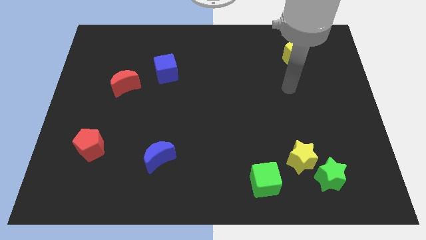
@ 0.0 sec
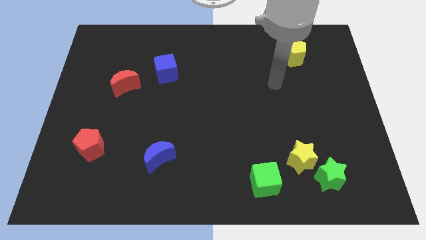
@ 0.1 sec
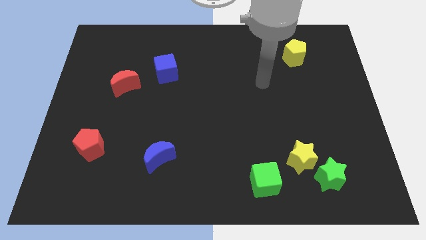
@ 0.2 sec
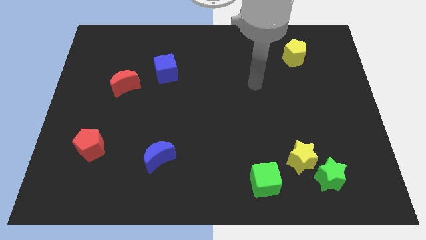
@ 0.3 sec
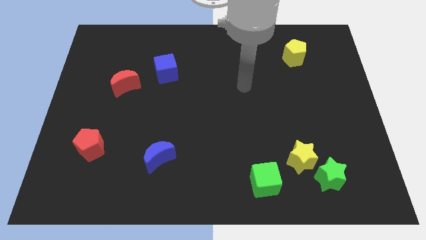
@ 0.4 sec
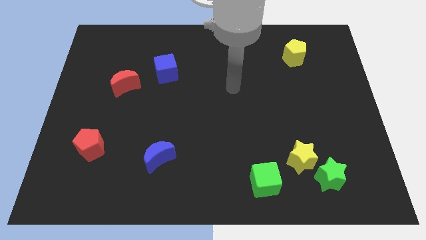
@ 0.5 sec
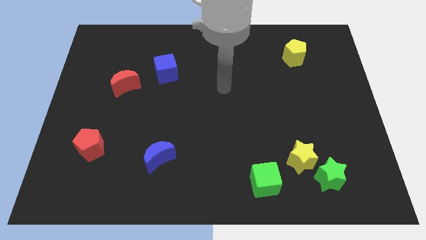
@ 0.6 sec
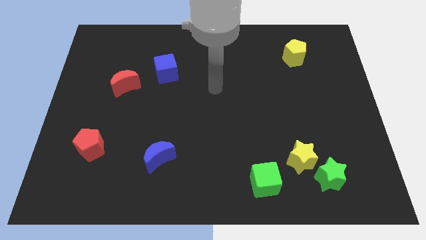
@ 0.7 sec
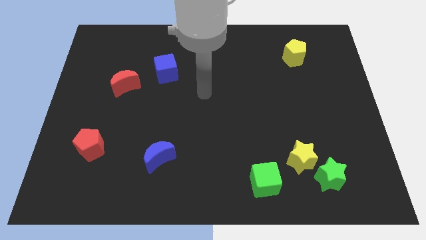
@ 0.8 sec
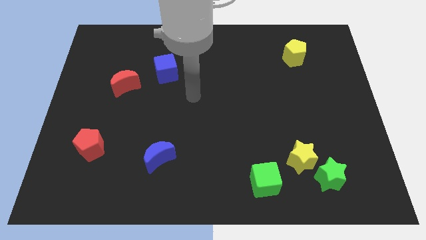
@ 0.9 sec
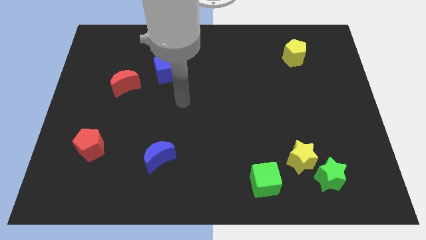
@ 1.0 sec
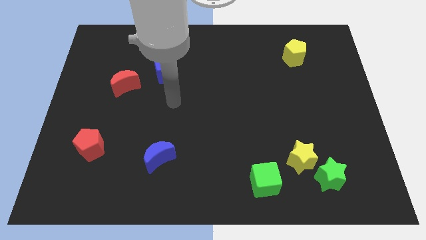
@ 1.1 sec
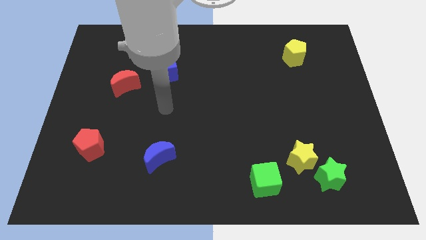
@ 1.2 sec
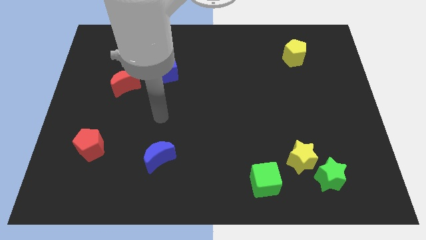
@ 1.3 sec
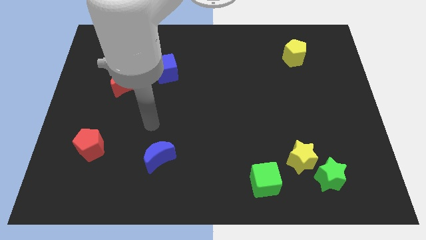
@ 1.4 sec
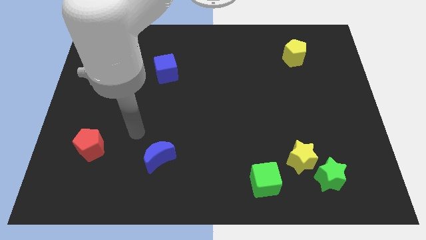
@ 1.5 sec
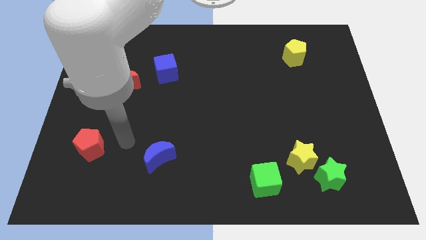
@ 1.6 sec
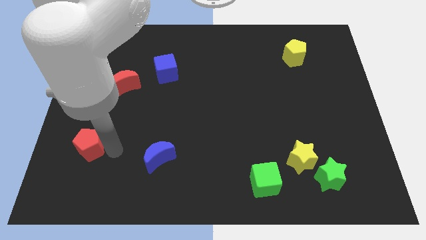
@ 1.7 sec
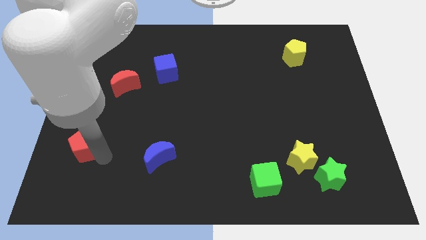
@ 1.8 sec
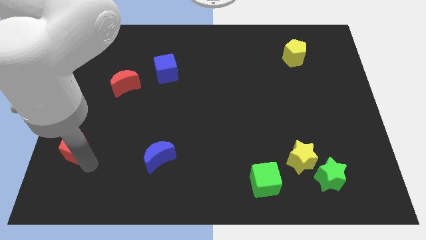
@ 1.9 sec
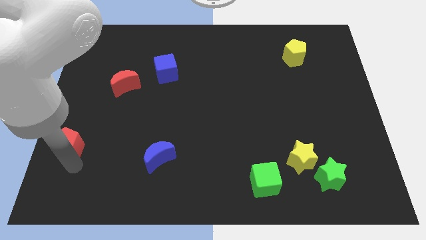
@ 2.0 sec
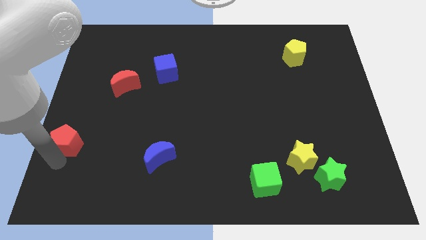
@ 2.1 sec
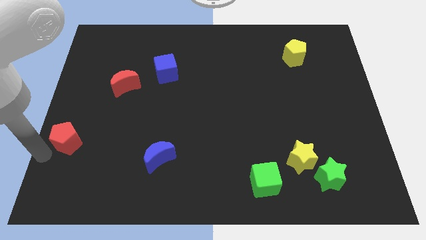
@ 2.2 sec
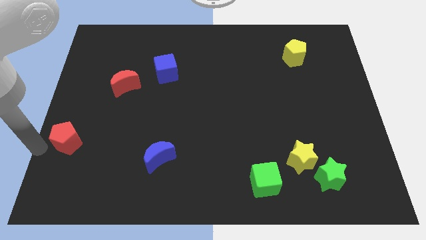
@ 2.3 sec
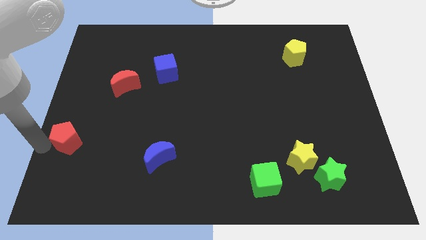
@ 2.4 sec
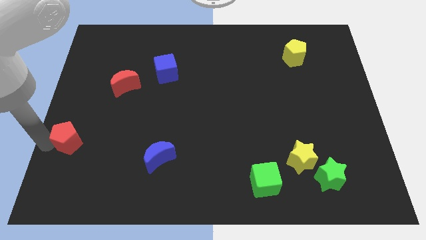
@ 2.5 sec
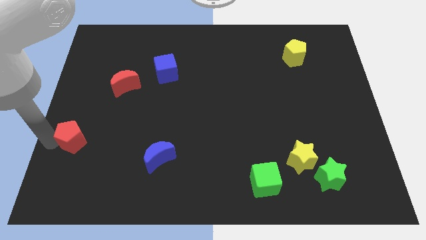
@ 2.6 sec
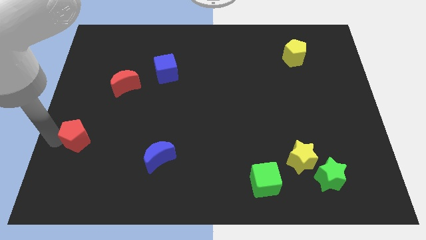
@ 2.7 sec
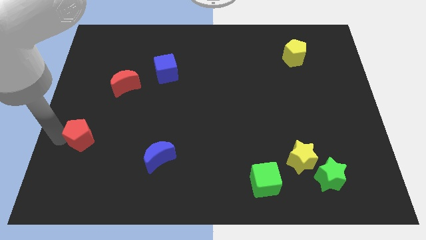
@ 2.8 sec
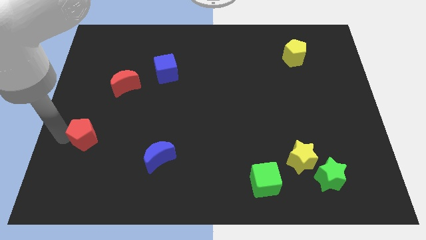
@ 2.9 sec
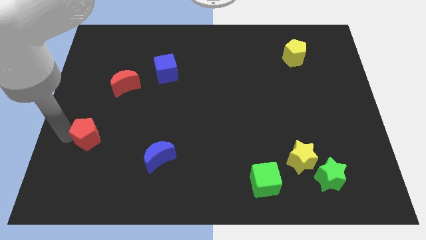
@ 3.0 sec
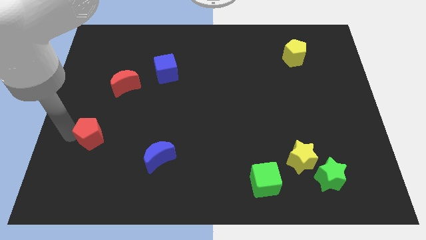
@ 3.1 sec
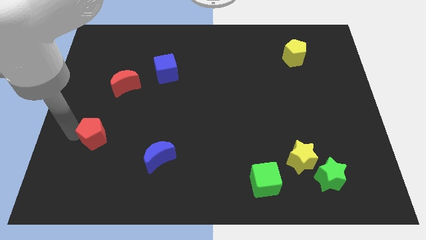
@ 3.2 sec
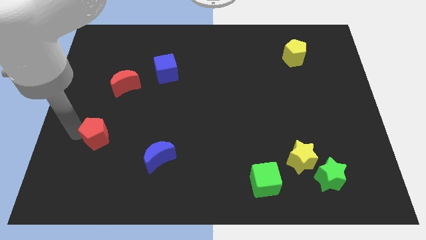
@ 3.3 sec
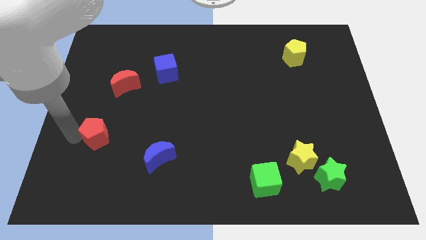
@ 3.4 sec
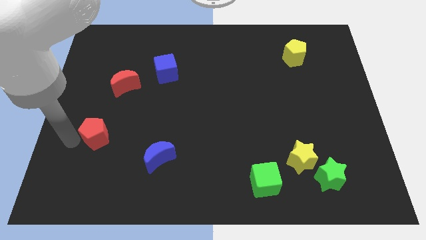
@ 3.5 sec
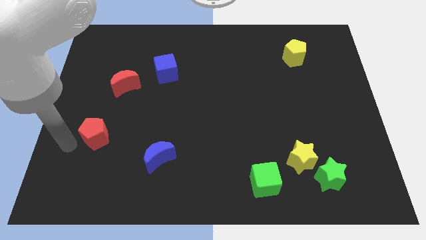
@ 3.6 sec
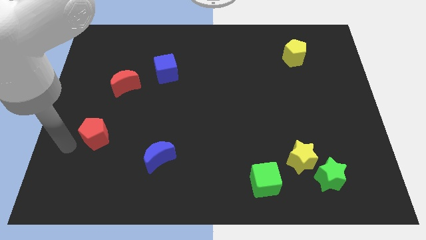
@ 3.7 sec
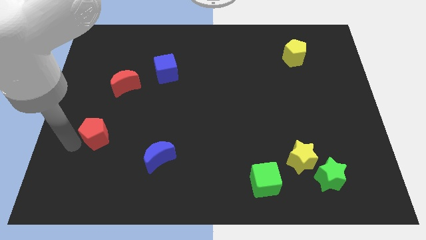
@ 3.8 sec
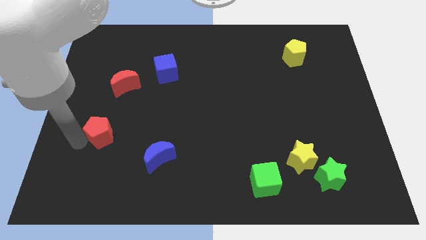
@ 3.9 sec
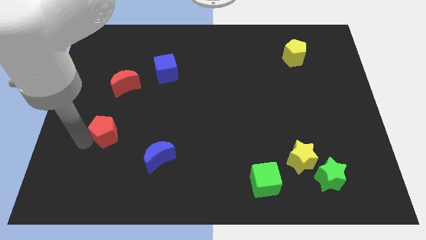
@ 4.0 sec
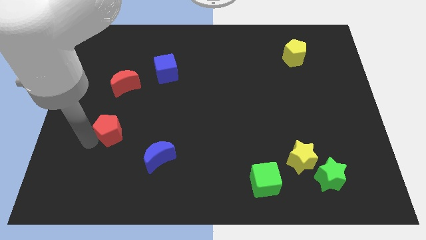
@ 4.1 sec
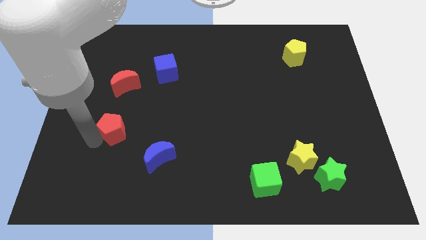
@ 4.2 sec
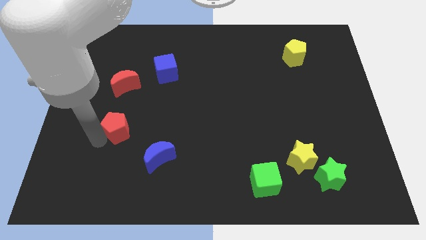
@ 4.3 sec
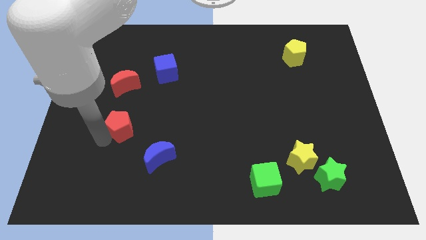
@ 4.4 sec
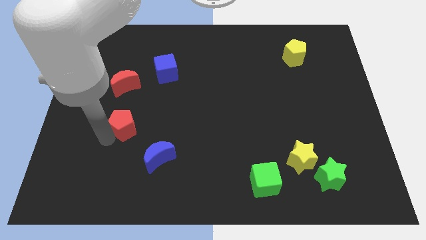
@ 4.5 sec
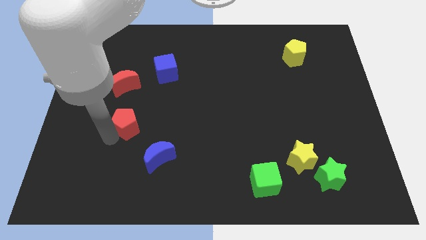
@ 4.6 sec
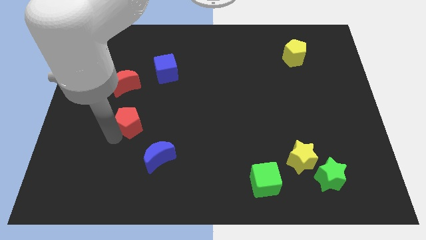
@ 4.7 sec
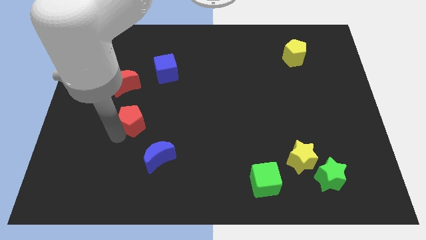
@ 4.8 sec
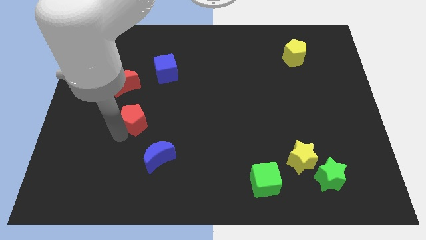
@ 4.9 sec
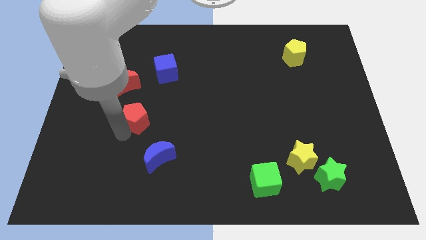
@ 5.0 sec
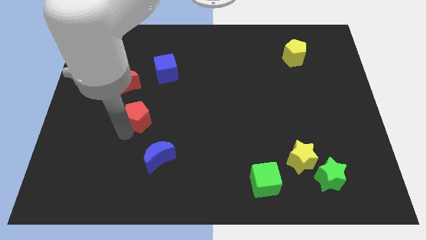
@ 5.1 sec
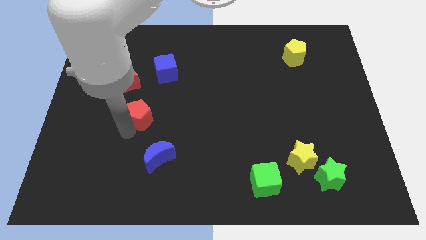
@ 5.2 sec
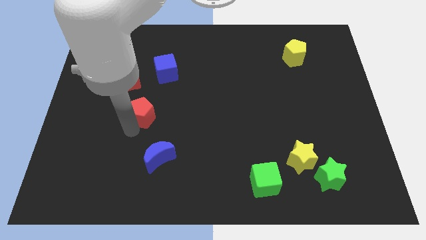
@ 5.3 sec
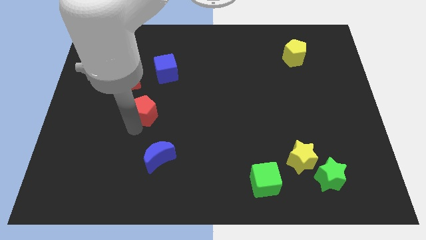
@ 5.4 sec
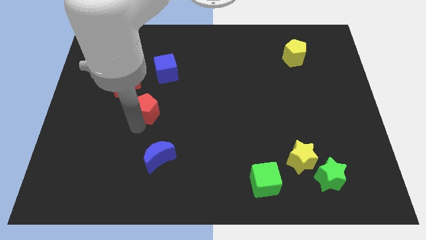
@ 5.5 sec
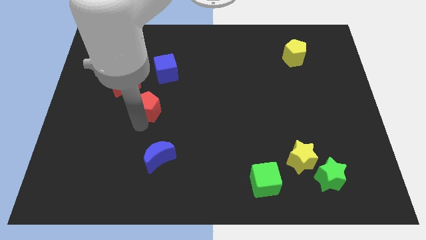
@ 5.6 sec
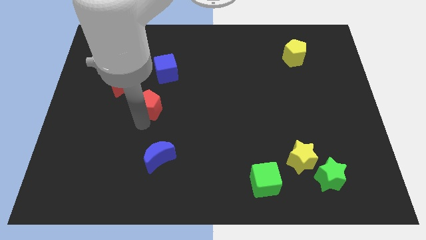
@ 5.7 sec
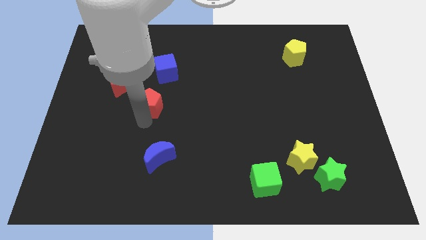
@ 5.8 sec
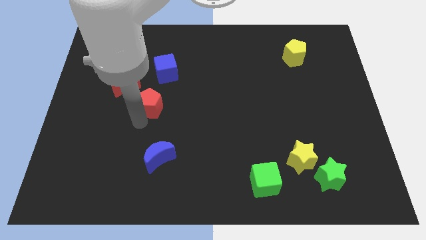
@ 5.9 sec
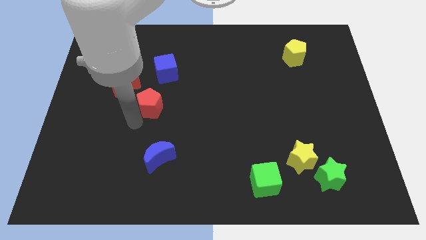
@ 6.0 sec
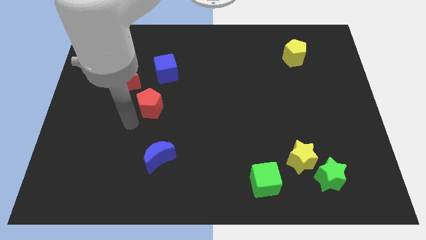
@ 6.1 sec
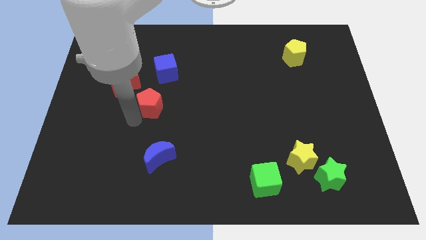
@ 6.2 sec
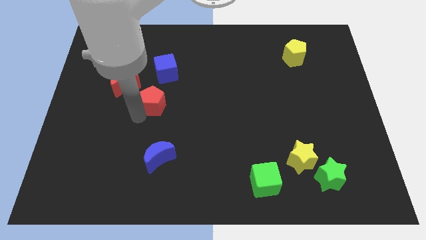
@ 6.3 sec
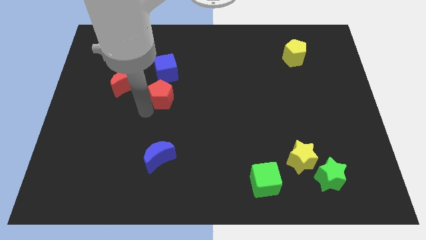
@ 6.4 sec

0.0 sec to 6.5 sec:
push the red pentagon upwards and to the right diagonally

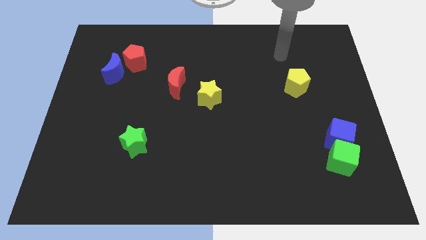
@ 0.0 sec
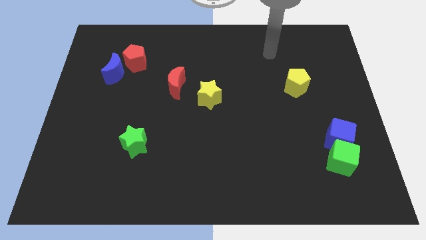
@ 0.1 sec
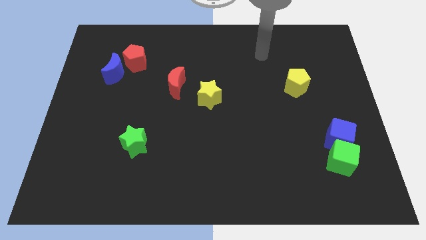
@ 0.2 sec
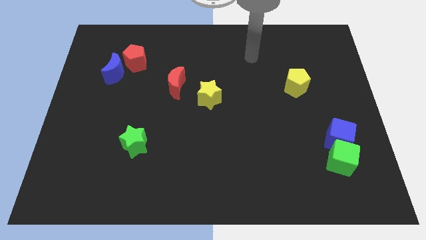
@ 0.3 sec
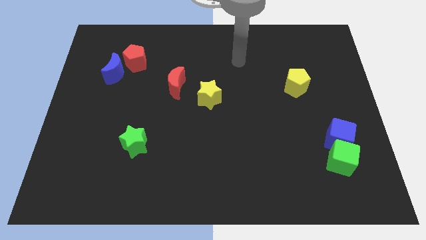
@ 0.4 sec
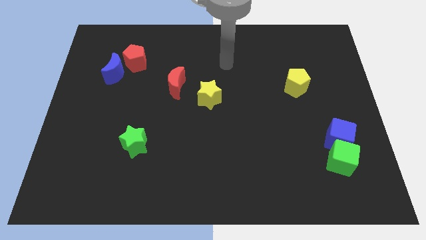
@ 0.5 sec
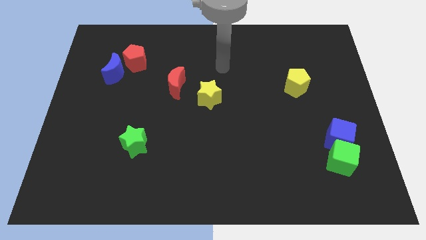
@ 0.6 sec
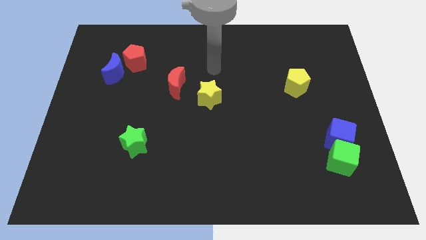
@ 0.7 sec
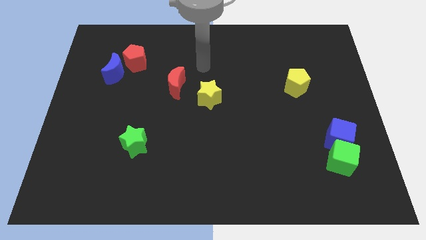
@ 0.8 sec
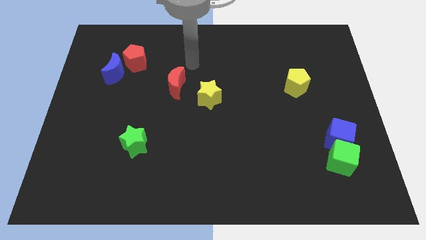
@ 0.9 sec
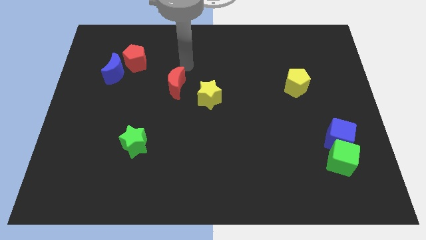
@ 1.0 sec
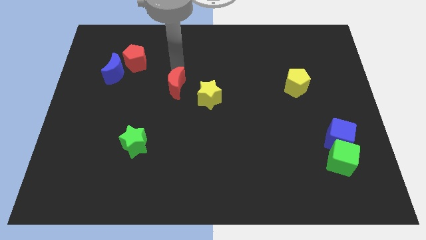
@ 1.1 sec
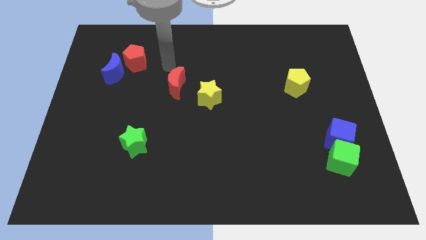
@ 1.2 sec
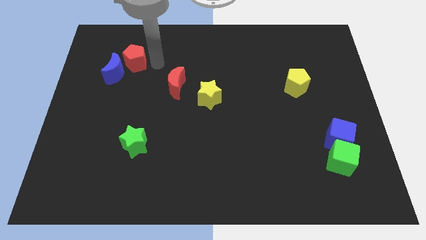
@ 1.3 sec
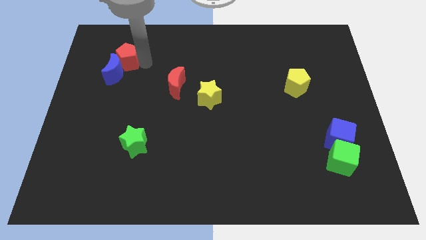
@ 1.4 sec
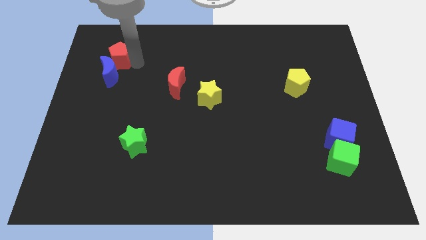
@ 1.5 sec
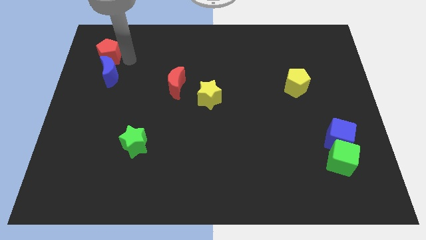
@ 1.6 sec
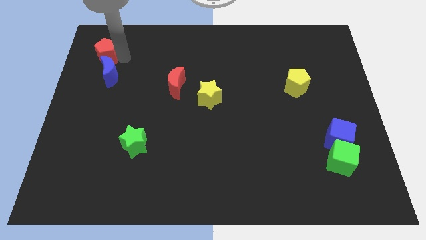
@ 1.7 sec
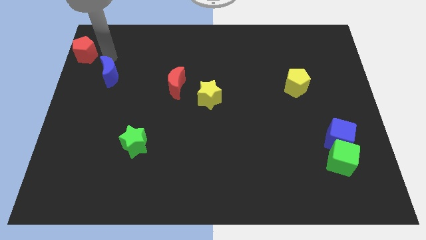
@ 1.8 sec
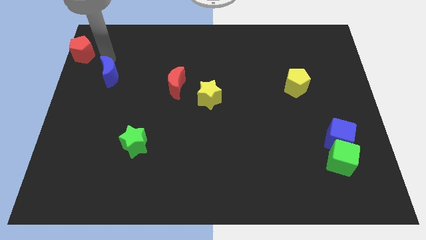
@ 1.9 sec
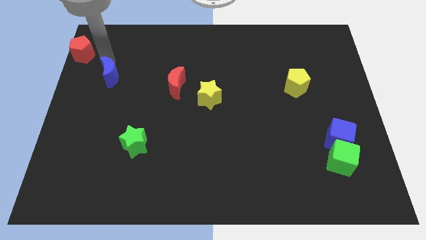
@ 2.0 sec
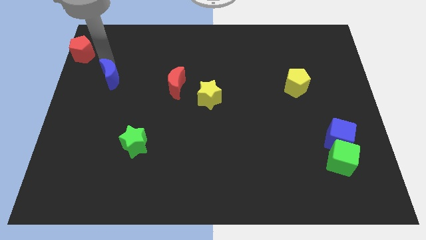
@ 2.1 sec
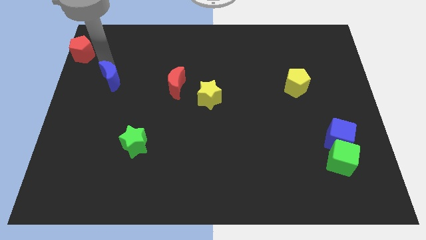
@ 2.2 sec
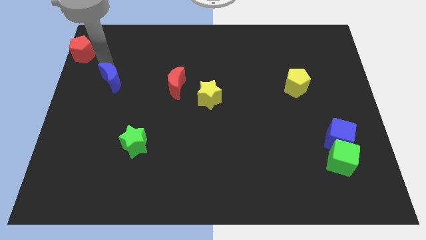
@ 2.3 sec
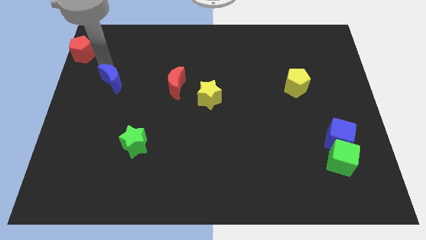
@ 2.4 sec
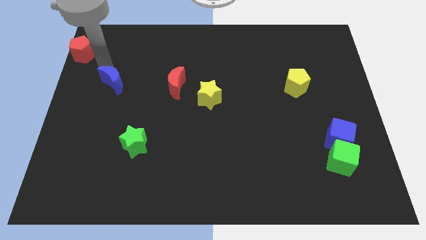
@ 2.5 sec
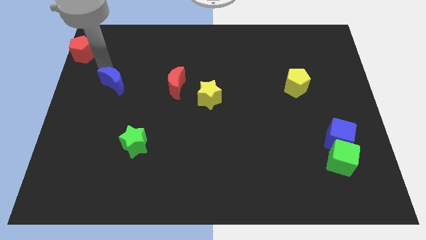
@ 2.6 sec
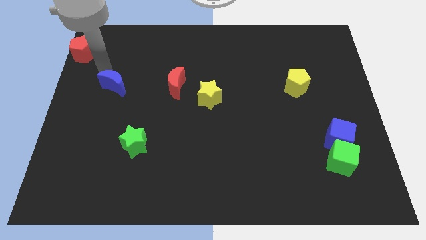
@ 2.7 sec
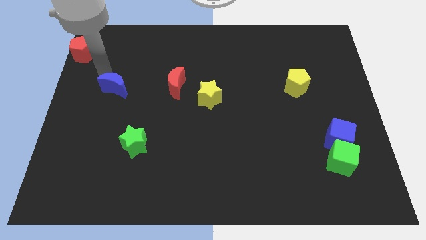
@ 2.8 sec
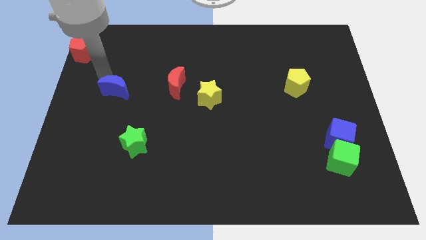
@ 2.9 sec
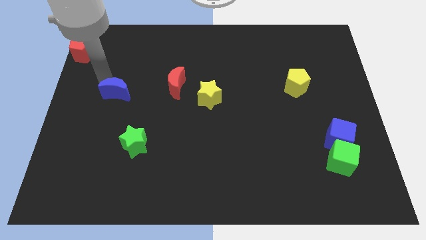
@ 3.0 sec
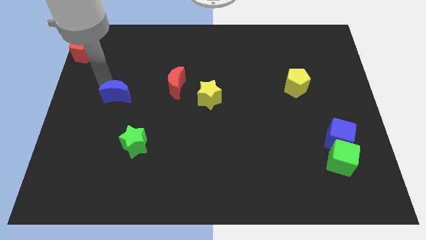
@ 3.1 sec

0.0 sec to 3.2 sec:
slide the blue moon downwards slightly
